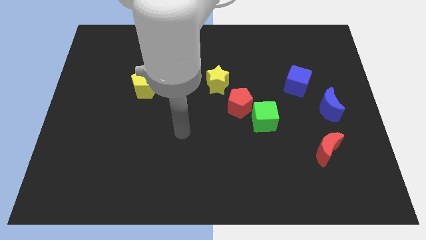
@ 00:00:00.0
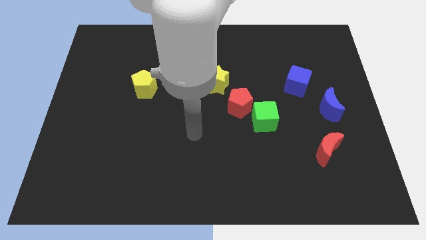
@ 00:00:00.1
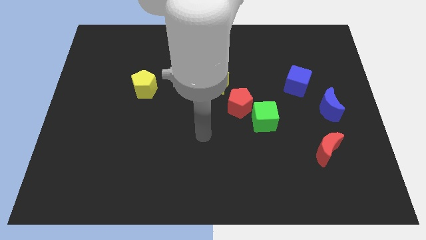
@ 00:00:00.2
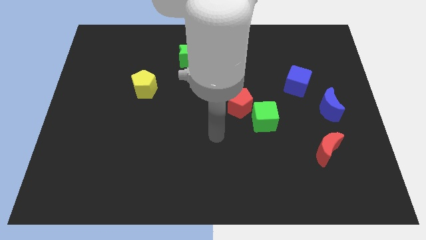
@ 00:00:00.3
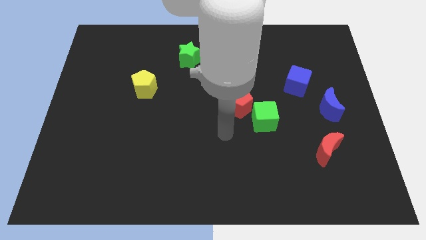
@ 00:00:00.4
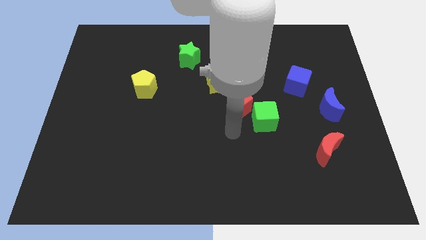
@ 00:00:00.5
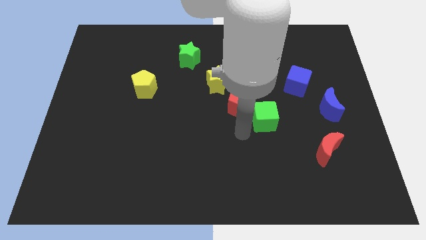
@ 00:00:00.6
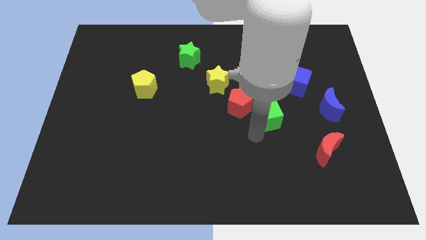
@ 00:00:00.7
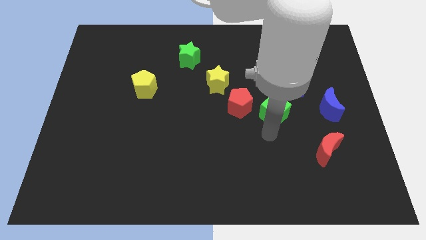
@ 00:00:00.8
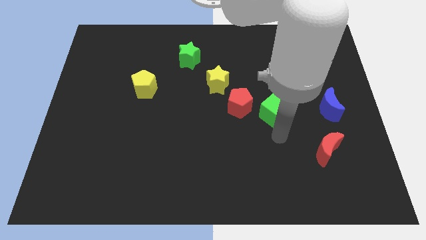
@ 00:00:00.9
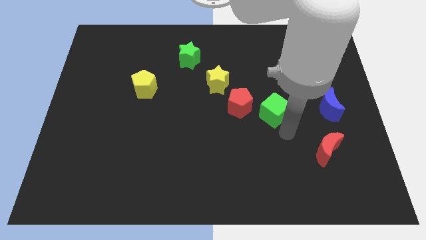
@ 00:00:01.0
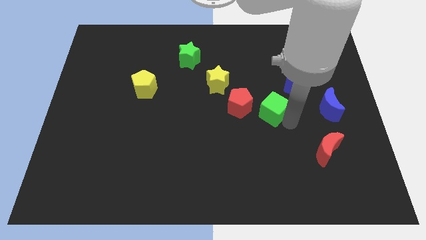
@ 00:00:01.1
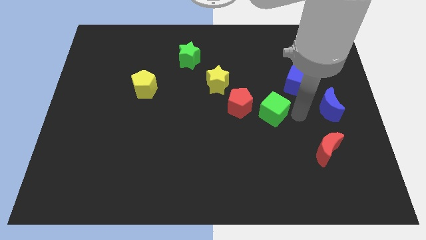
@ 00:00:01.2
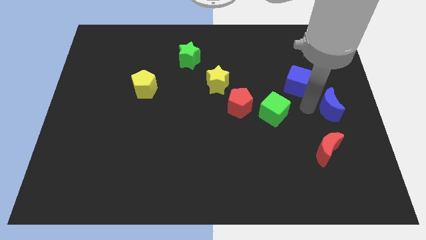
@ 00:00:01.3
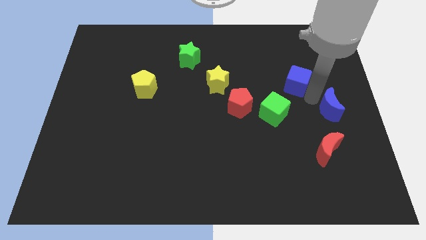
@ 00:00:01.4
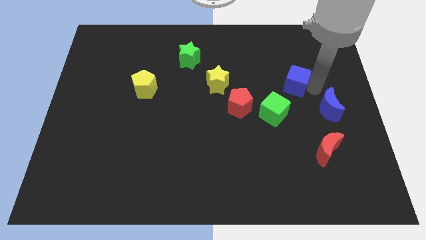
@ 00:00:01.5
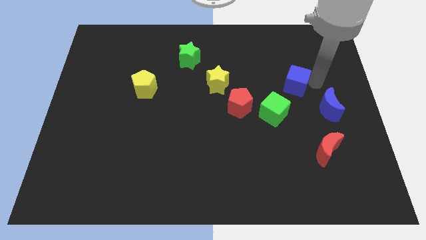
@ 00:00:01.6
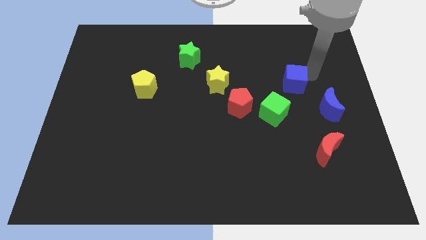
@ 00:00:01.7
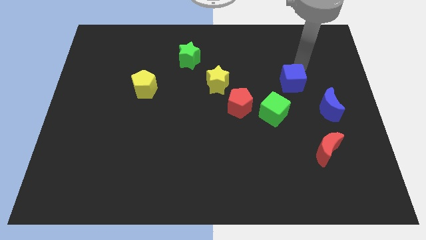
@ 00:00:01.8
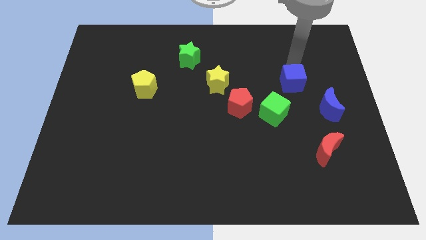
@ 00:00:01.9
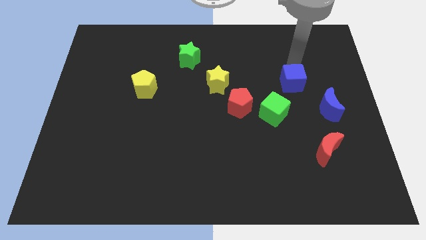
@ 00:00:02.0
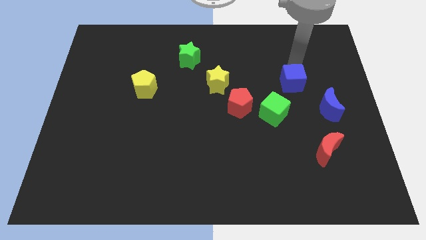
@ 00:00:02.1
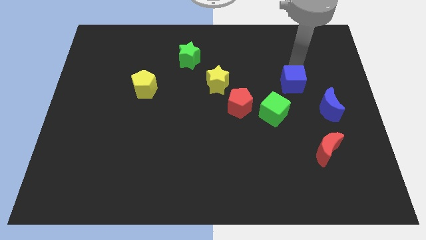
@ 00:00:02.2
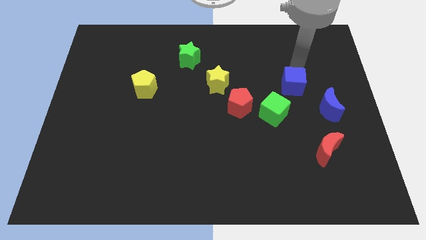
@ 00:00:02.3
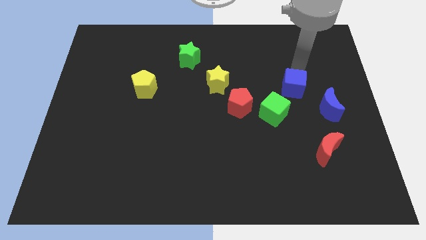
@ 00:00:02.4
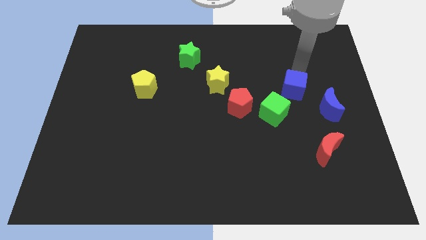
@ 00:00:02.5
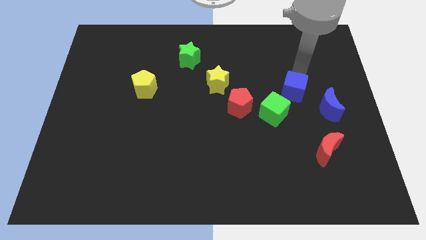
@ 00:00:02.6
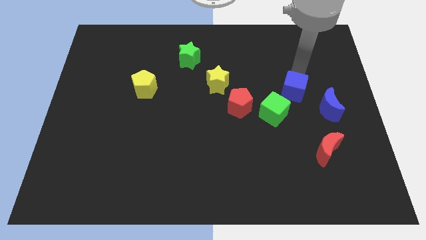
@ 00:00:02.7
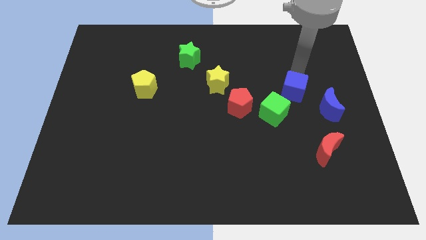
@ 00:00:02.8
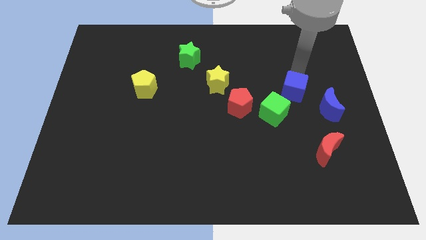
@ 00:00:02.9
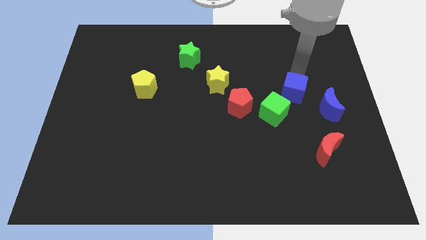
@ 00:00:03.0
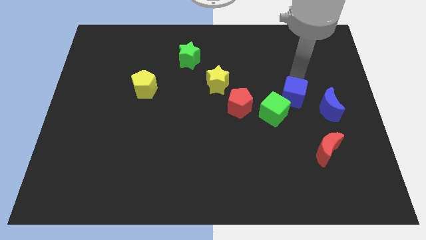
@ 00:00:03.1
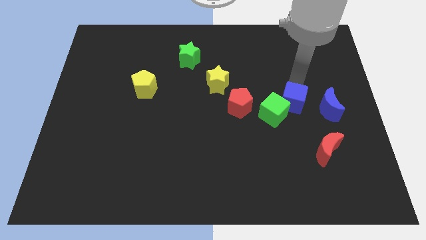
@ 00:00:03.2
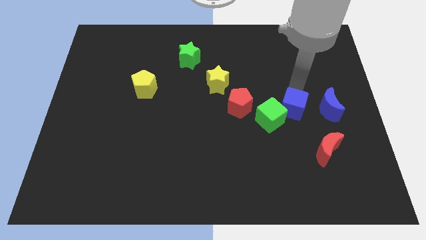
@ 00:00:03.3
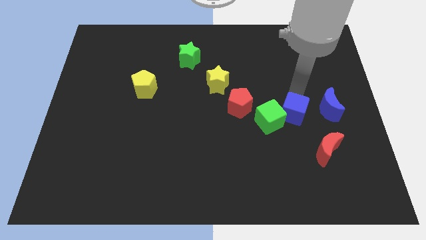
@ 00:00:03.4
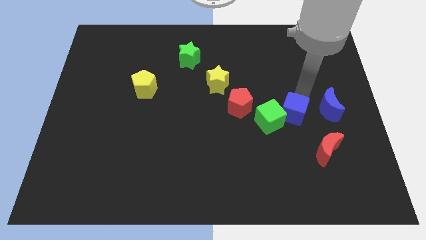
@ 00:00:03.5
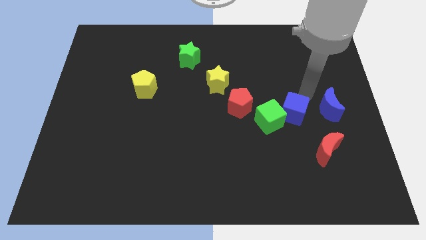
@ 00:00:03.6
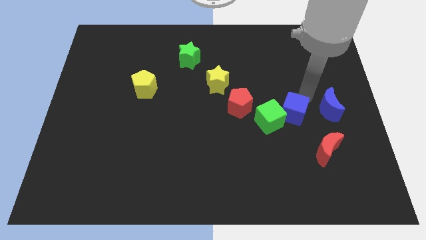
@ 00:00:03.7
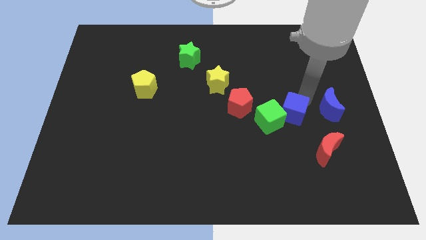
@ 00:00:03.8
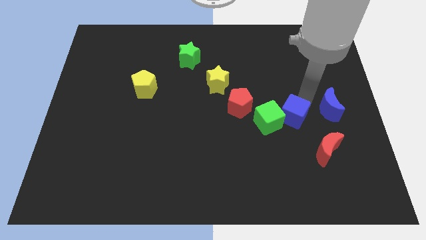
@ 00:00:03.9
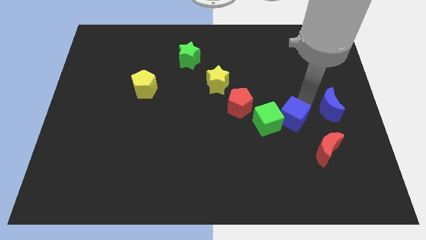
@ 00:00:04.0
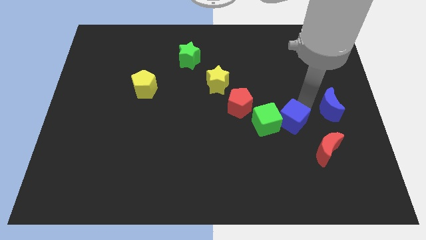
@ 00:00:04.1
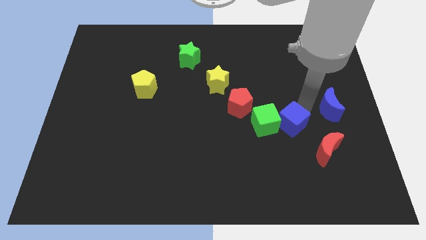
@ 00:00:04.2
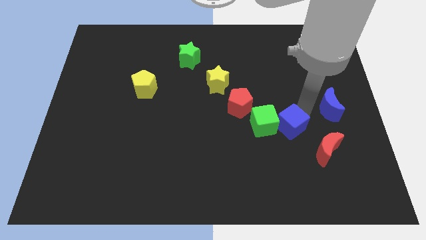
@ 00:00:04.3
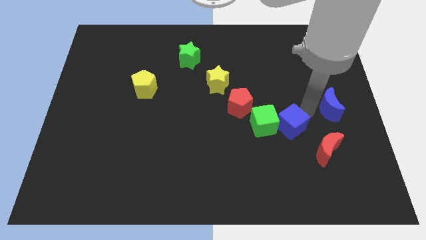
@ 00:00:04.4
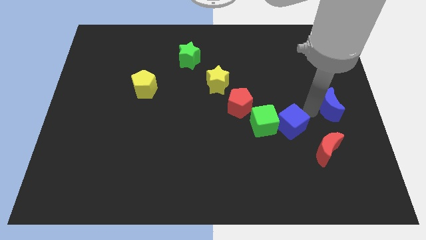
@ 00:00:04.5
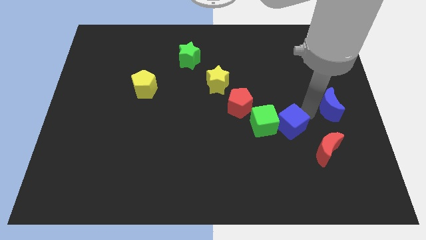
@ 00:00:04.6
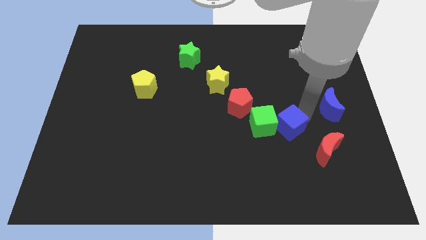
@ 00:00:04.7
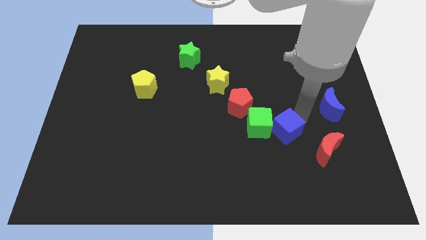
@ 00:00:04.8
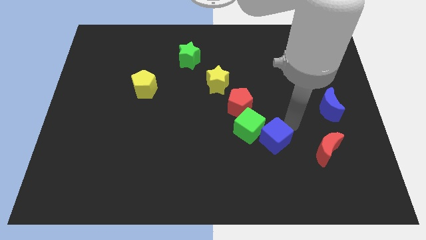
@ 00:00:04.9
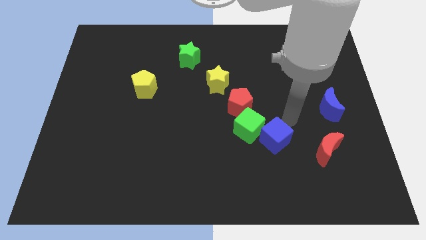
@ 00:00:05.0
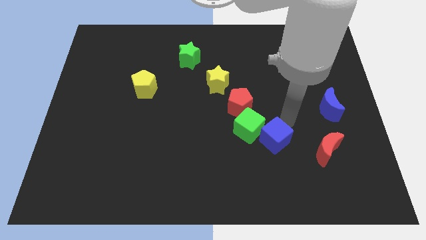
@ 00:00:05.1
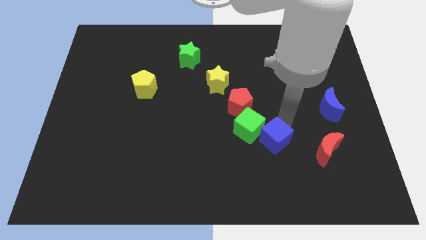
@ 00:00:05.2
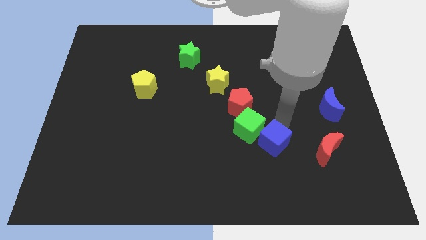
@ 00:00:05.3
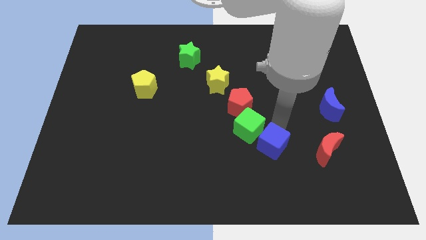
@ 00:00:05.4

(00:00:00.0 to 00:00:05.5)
slide the blue cube to the bottom of the green cube
